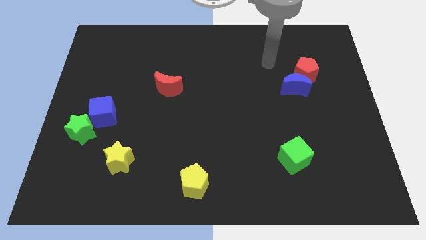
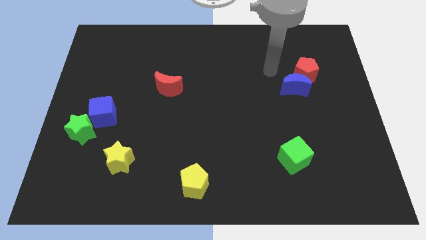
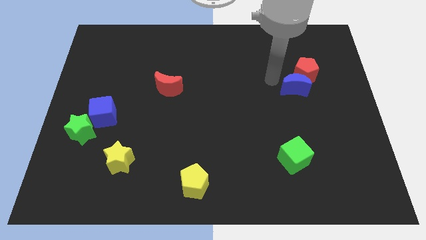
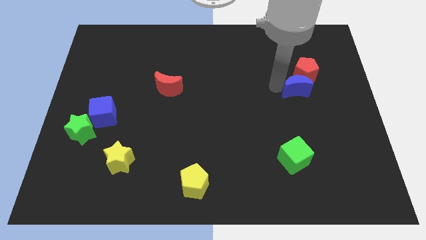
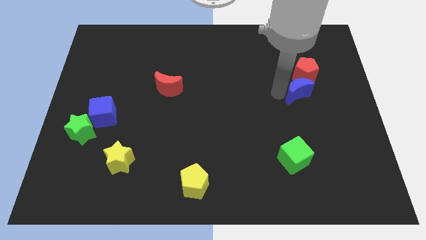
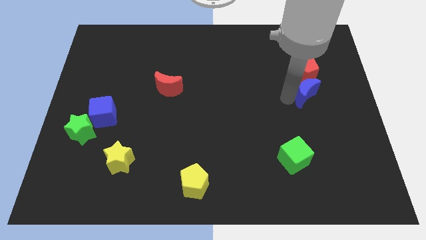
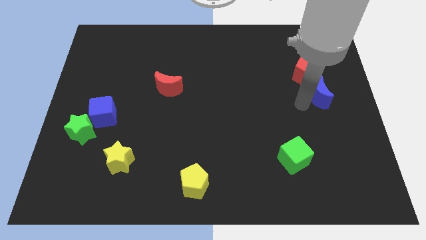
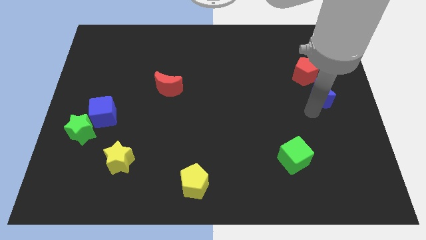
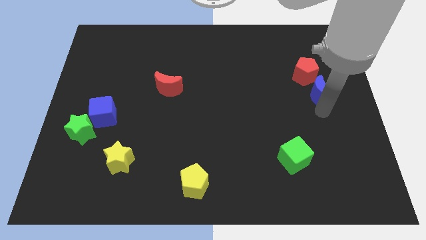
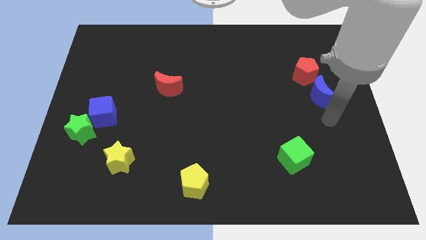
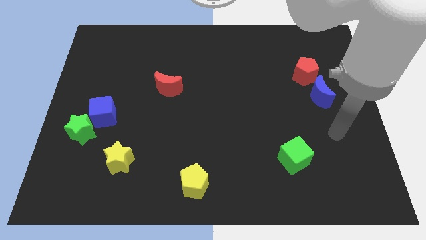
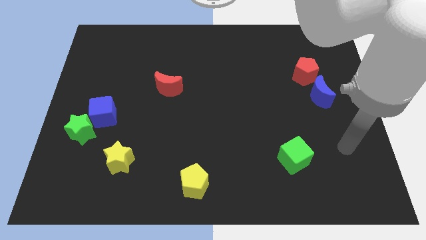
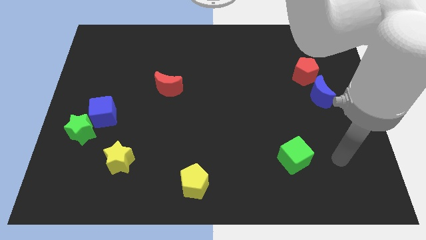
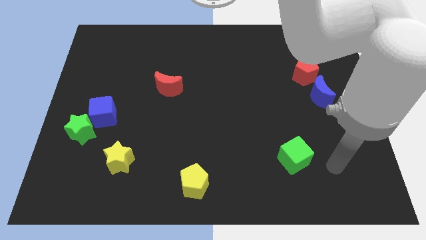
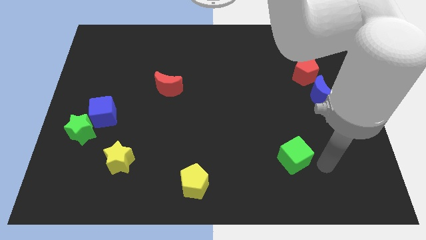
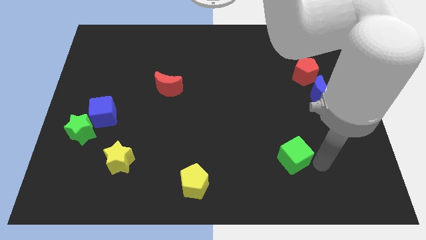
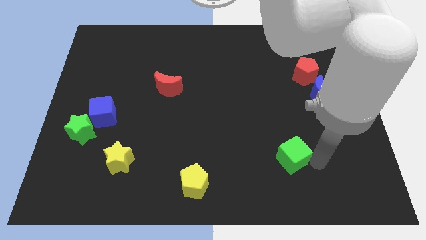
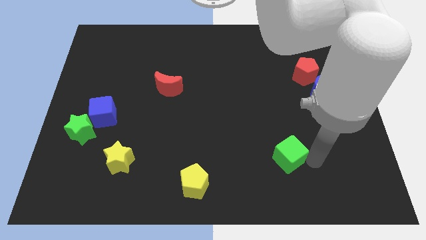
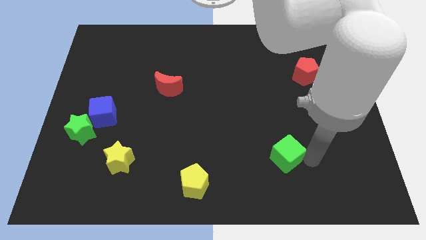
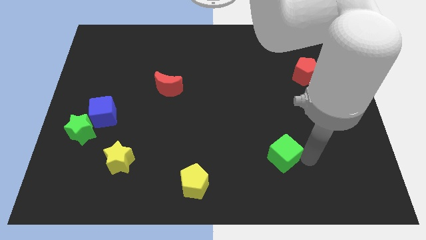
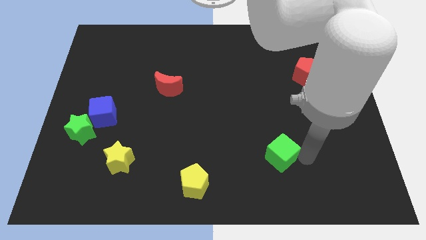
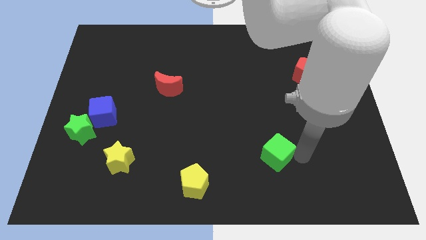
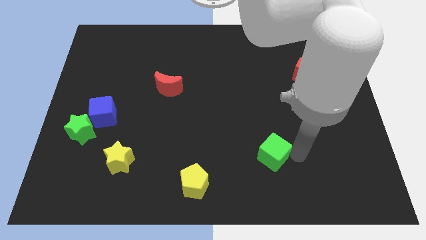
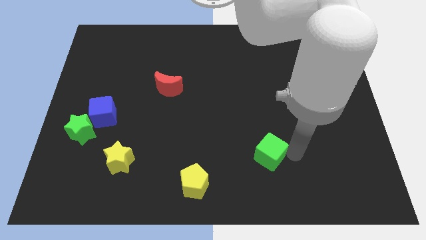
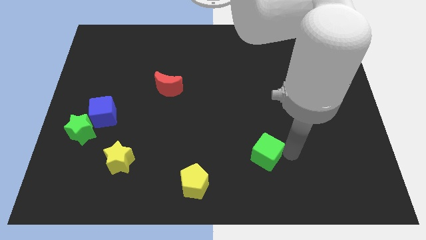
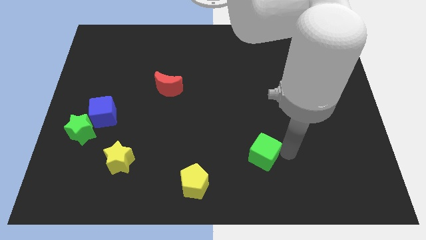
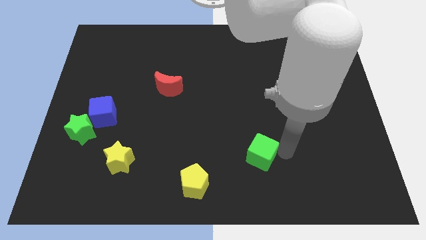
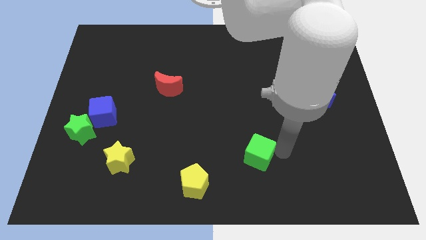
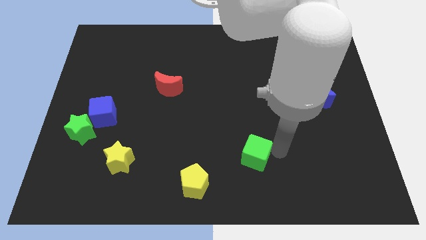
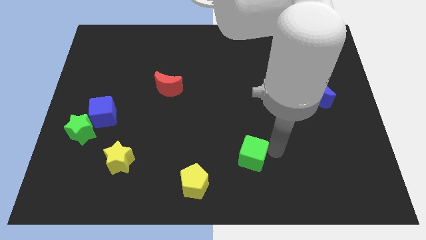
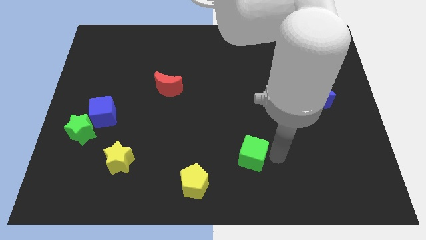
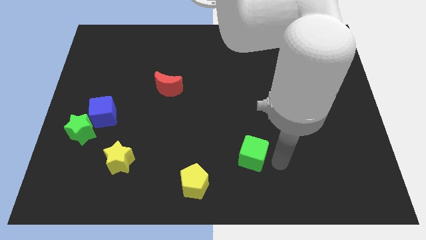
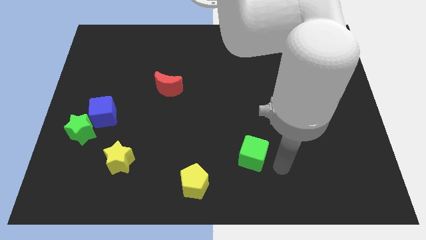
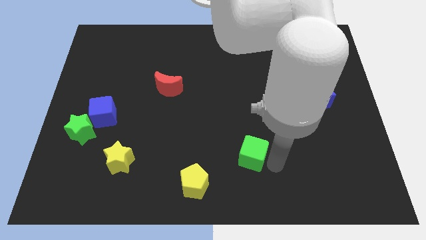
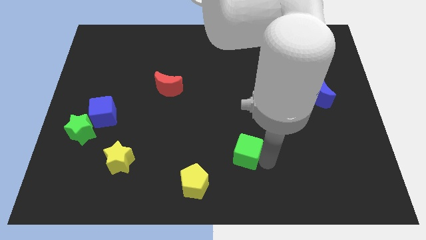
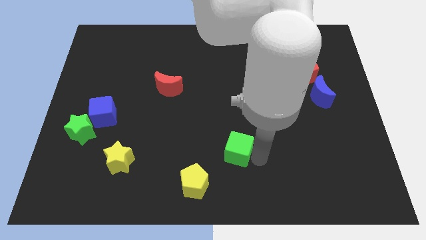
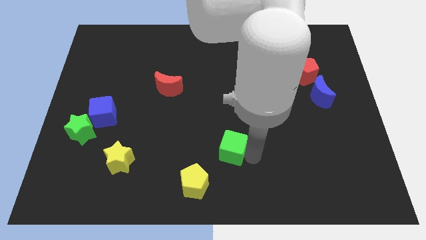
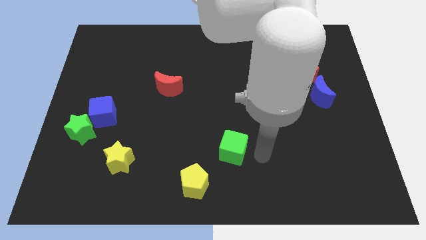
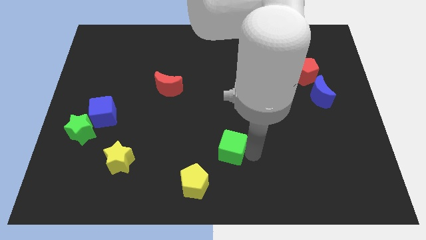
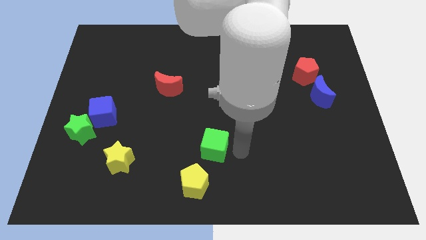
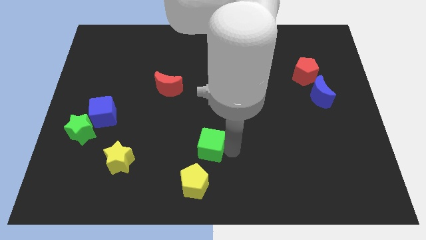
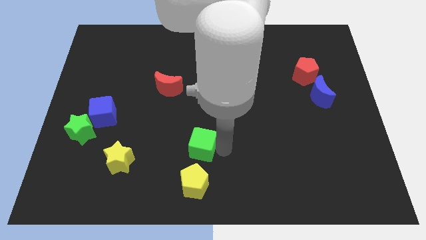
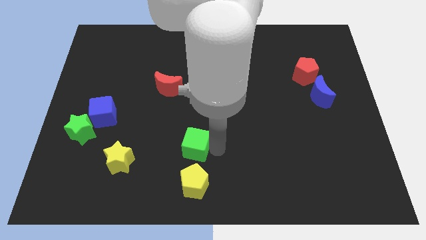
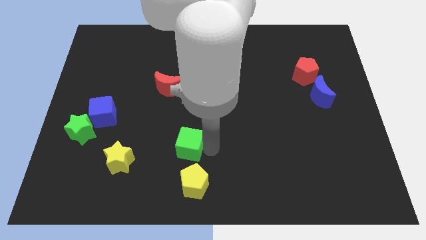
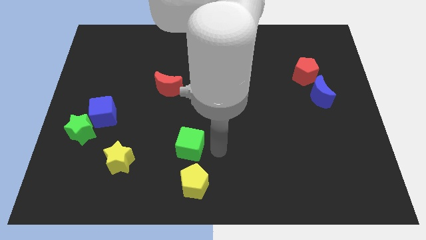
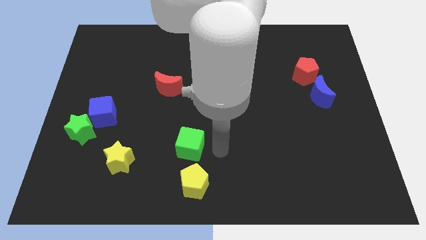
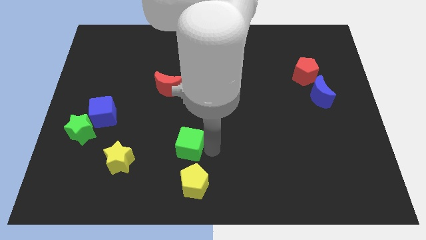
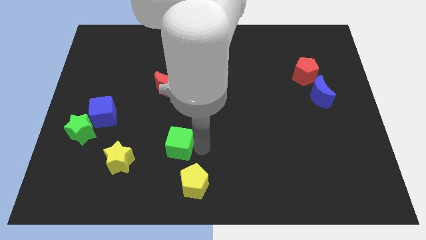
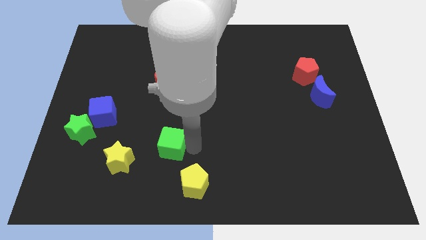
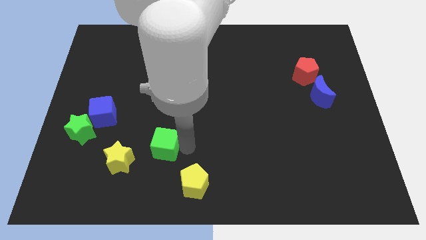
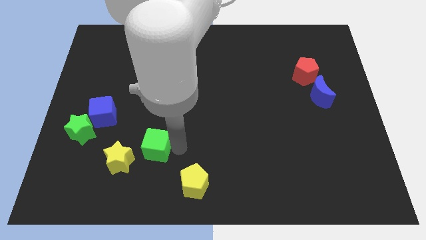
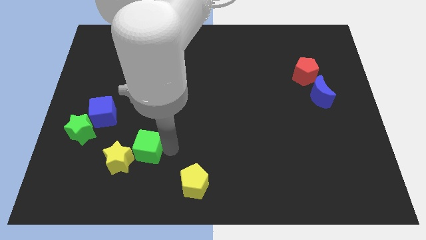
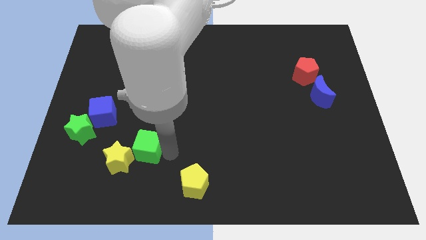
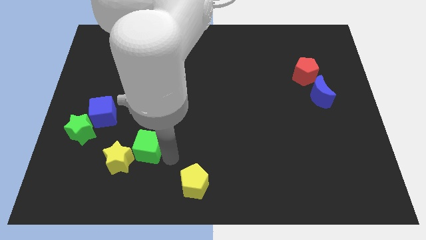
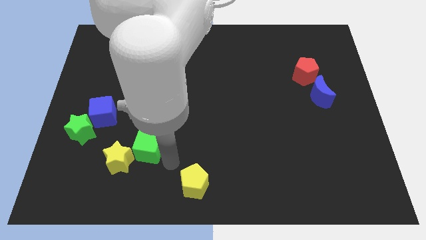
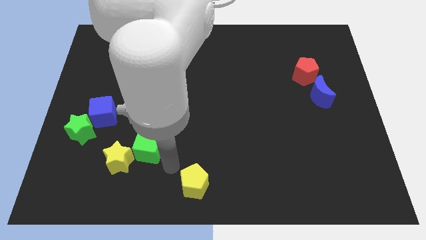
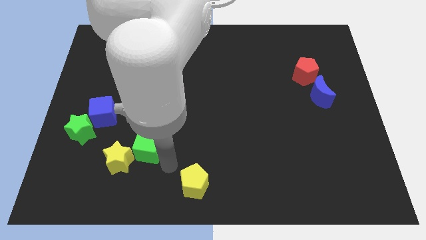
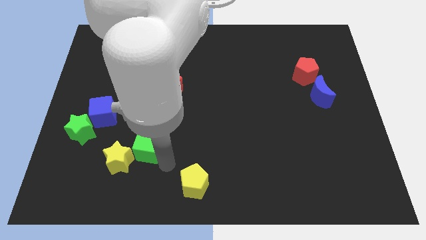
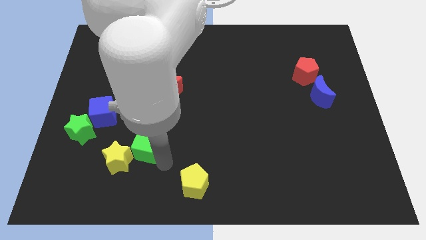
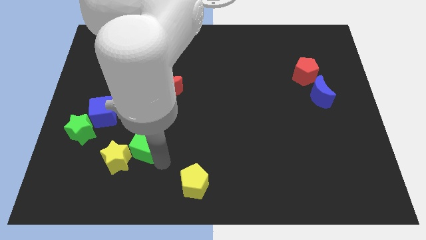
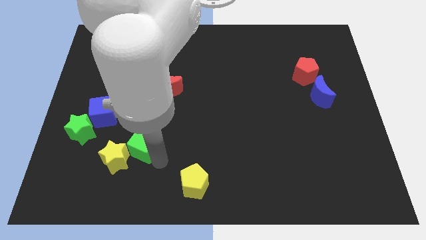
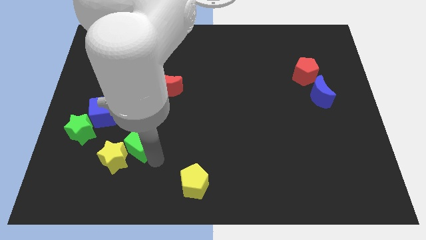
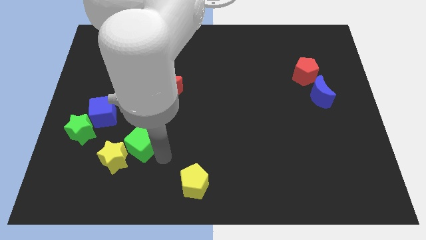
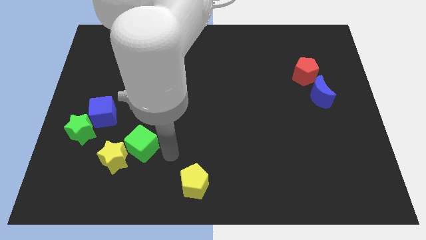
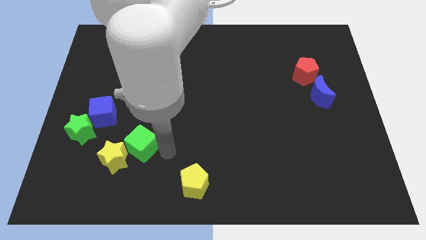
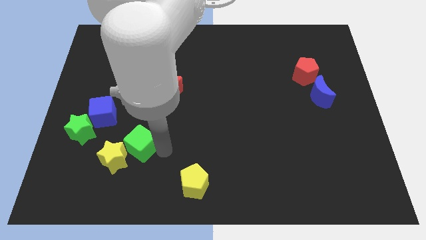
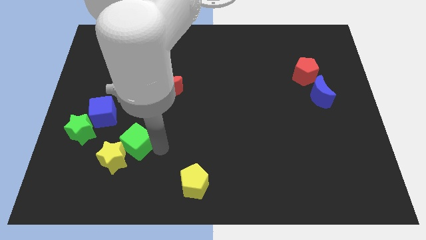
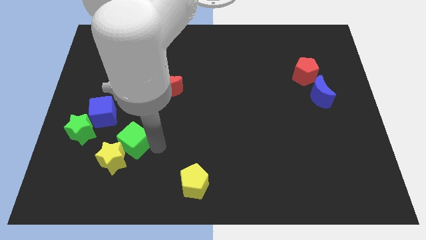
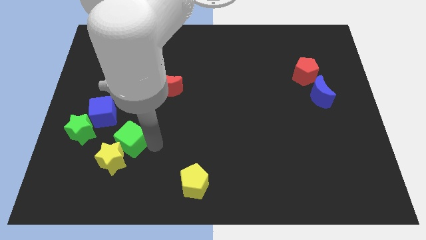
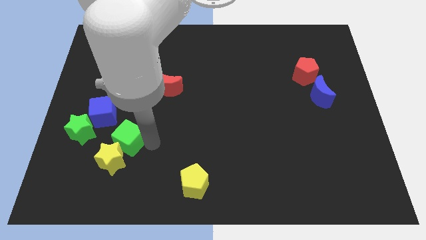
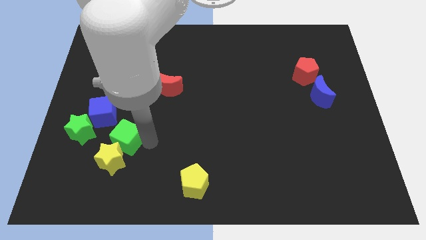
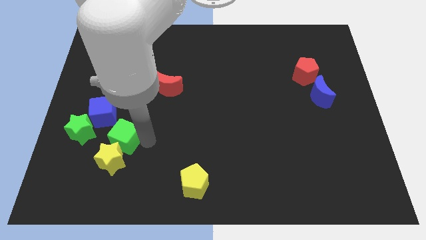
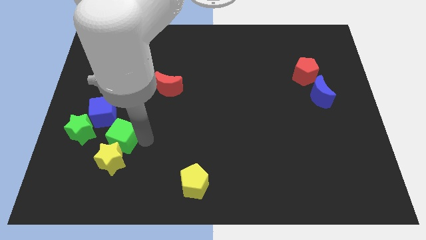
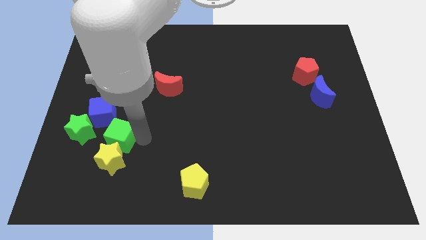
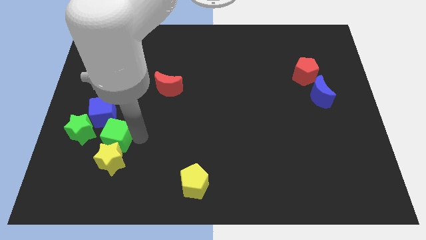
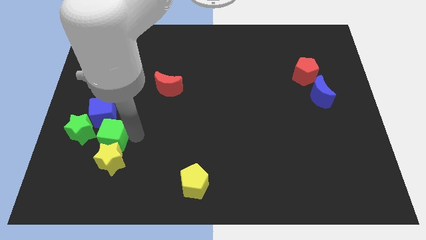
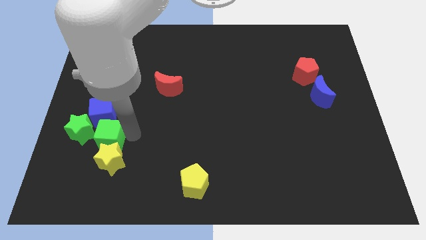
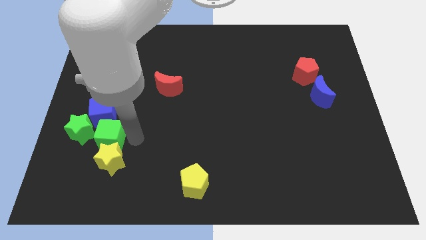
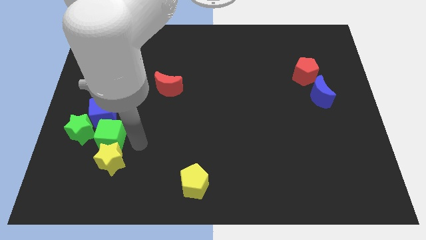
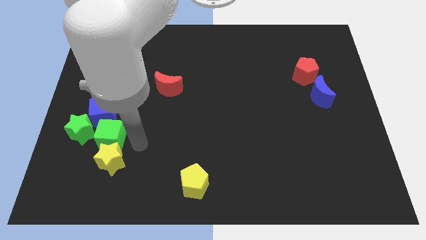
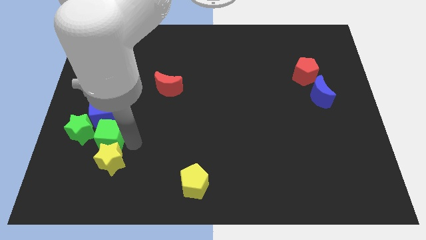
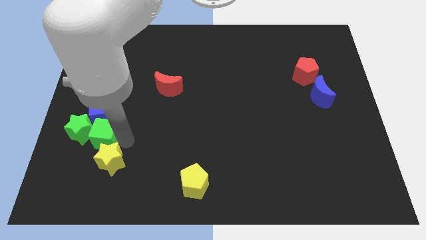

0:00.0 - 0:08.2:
push the green cube towards the green star
